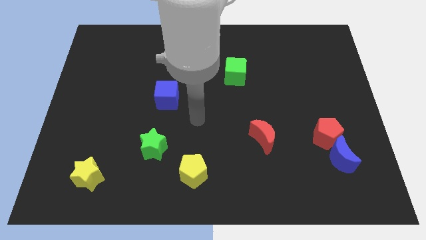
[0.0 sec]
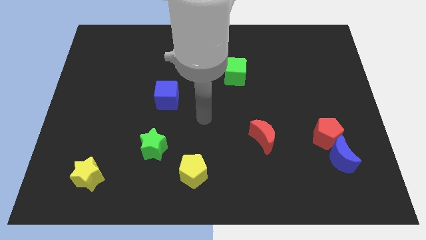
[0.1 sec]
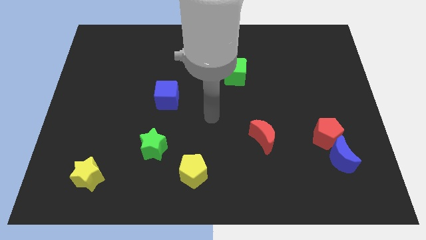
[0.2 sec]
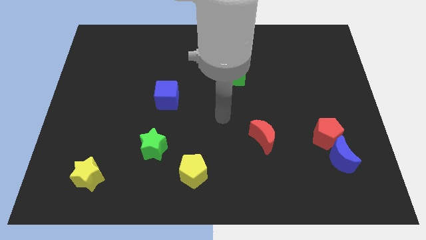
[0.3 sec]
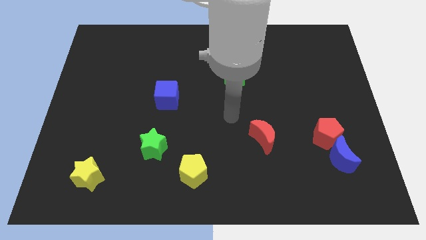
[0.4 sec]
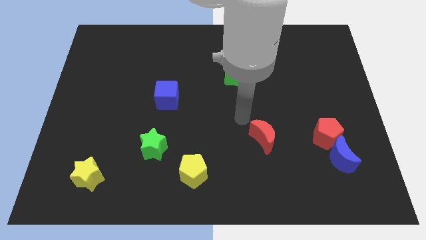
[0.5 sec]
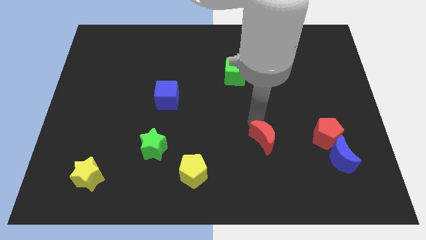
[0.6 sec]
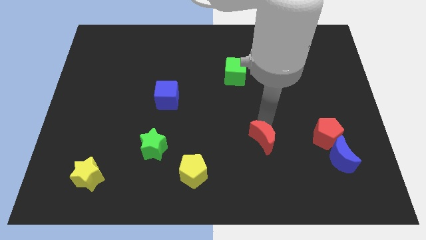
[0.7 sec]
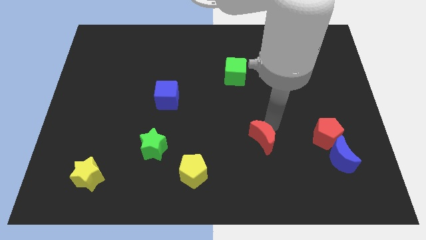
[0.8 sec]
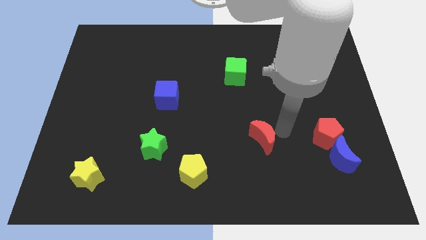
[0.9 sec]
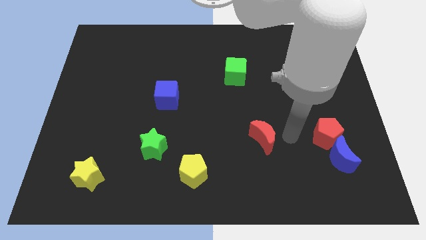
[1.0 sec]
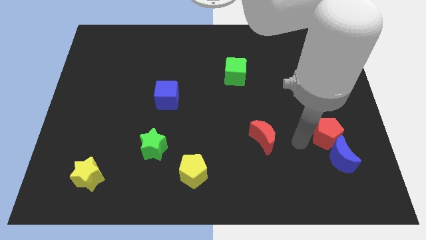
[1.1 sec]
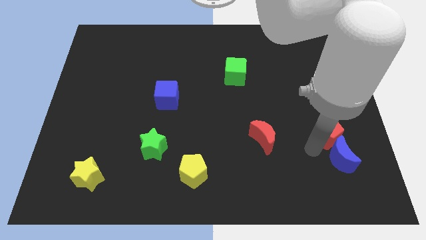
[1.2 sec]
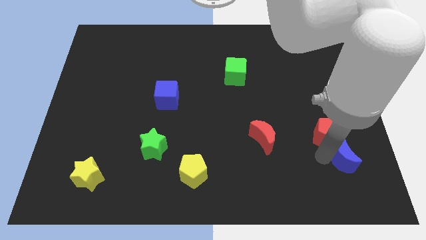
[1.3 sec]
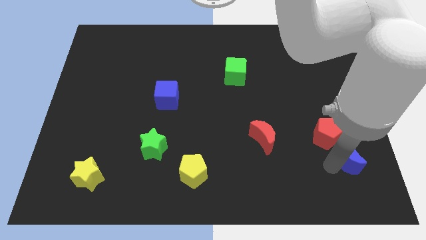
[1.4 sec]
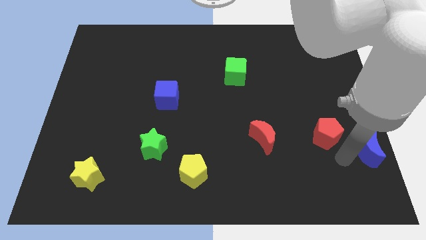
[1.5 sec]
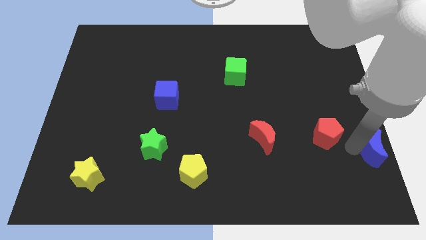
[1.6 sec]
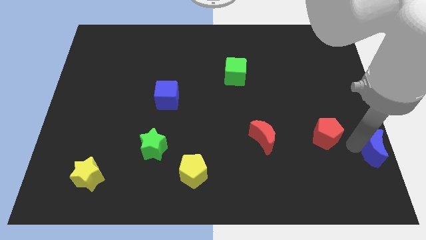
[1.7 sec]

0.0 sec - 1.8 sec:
move the red pentagon away from the blue moon

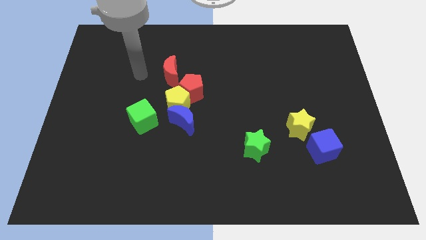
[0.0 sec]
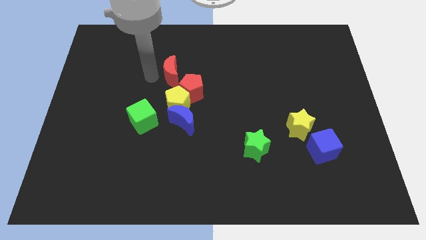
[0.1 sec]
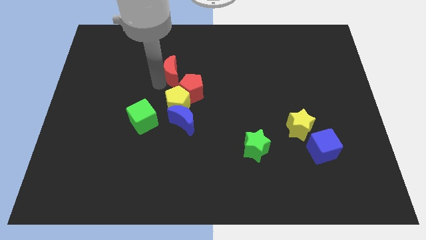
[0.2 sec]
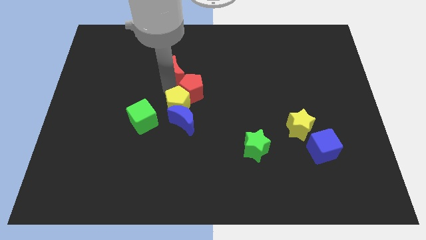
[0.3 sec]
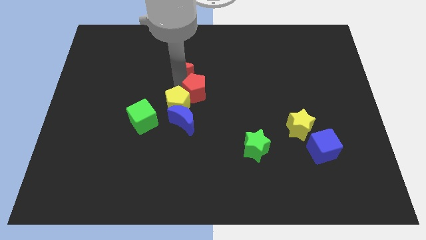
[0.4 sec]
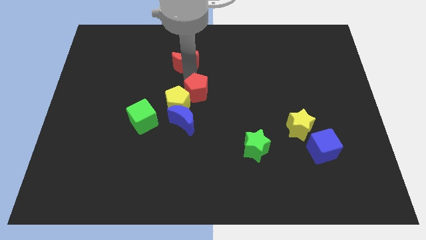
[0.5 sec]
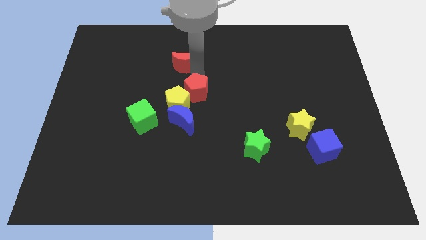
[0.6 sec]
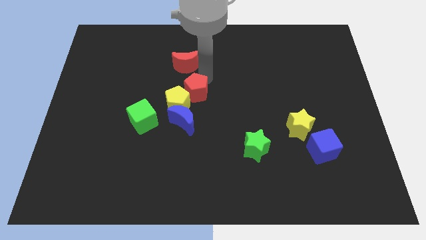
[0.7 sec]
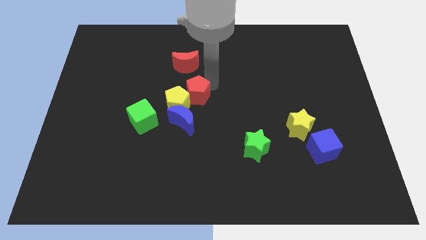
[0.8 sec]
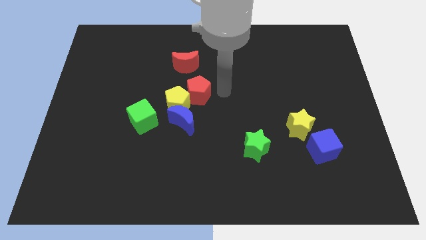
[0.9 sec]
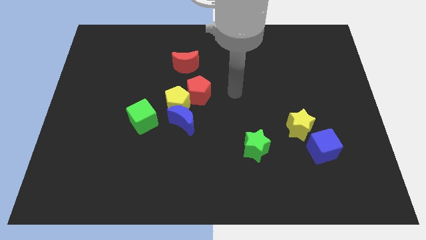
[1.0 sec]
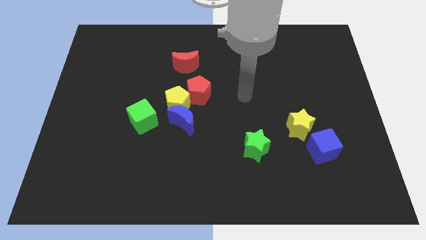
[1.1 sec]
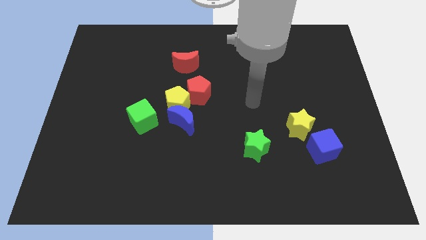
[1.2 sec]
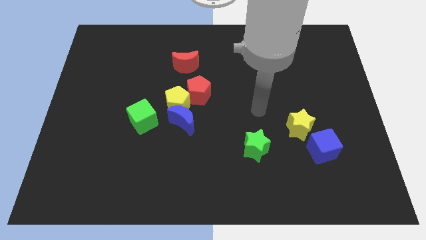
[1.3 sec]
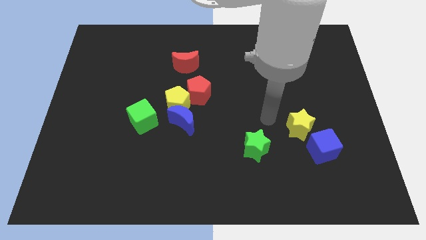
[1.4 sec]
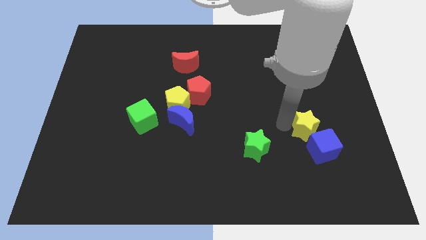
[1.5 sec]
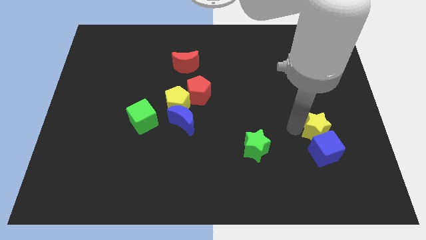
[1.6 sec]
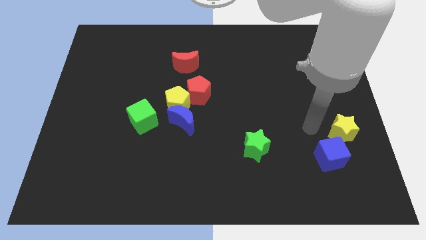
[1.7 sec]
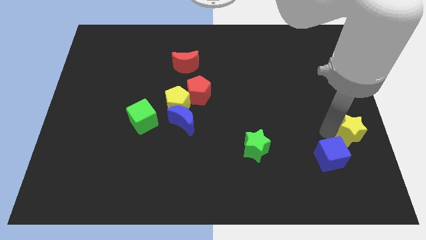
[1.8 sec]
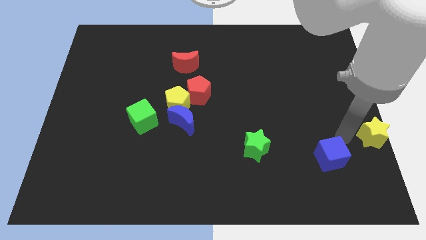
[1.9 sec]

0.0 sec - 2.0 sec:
separate the blue cube from the yellow star

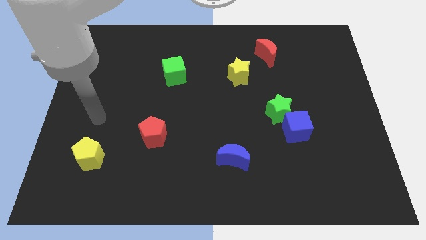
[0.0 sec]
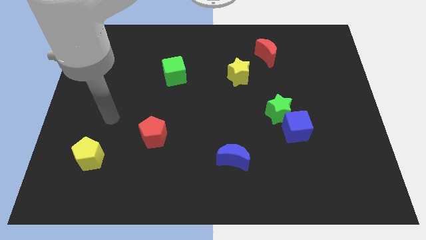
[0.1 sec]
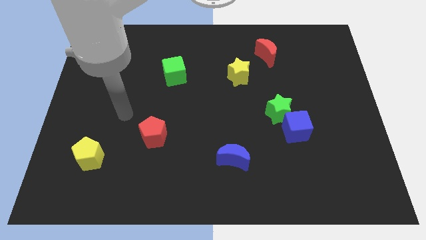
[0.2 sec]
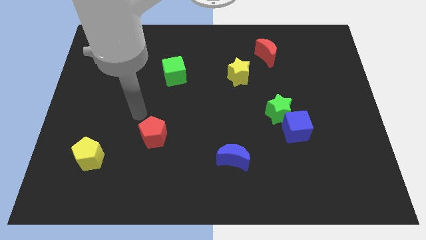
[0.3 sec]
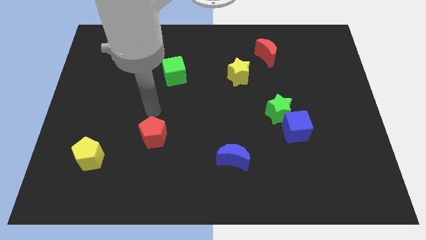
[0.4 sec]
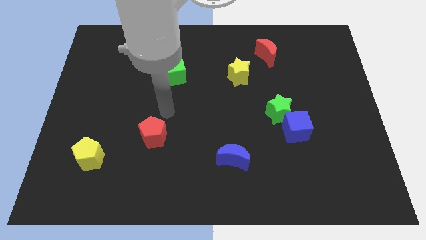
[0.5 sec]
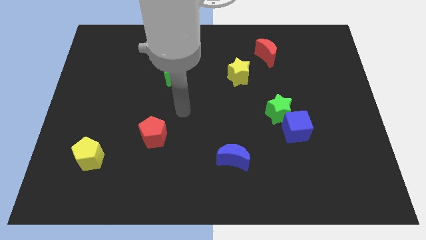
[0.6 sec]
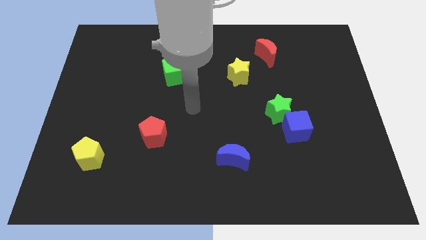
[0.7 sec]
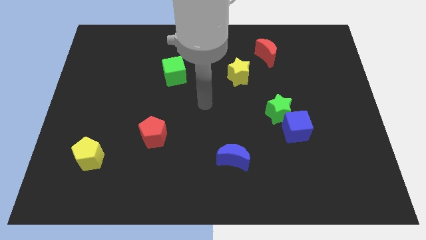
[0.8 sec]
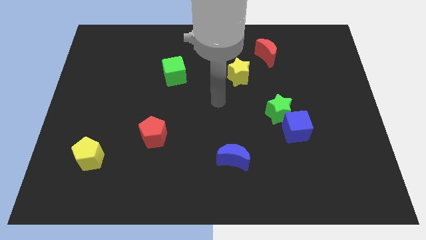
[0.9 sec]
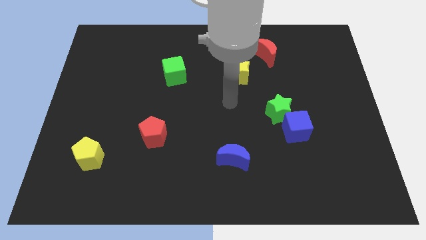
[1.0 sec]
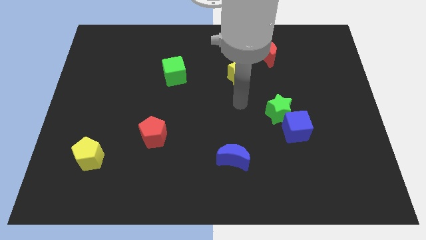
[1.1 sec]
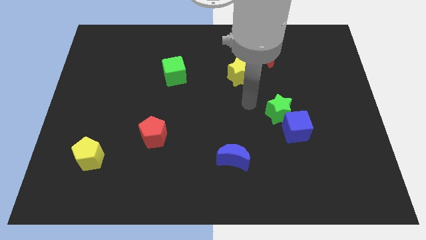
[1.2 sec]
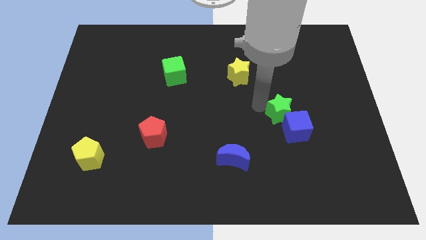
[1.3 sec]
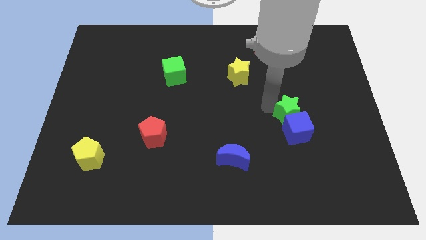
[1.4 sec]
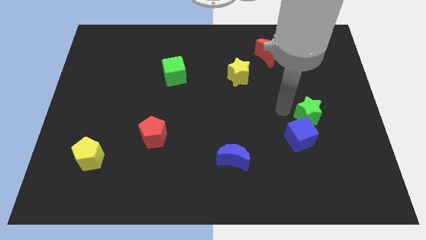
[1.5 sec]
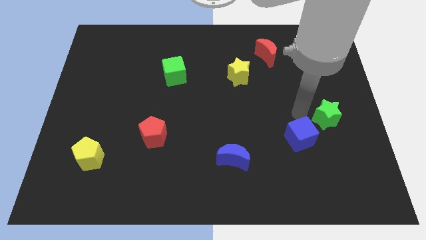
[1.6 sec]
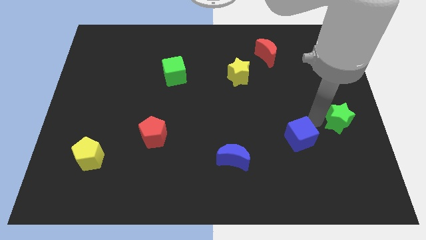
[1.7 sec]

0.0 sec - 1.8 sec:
move the blue cube away from the green star

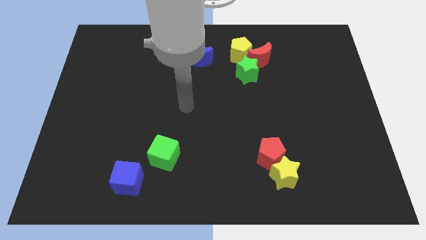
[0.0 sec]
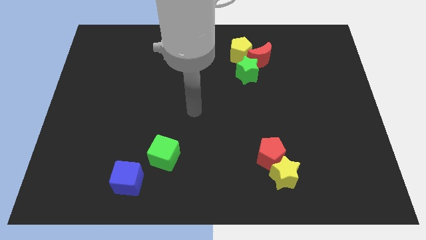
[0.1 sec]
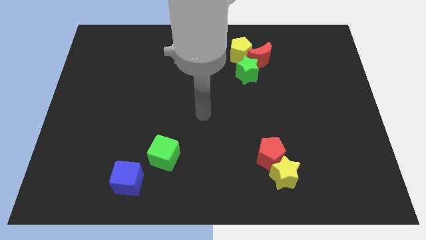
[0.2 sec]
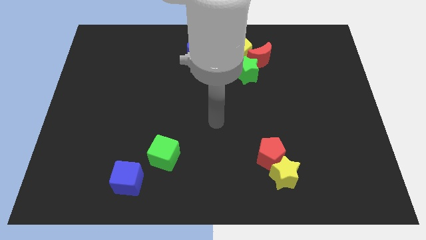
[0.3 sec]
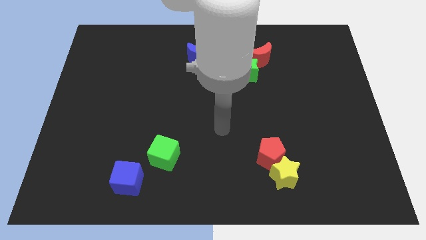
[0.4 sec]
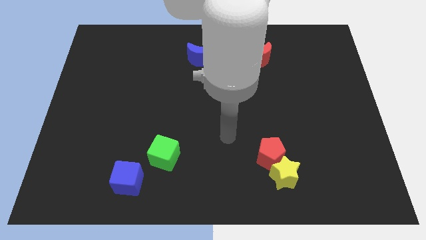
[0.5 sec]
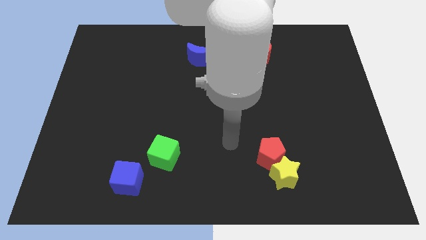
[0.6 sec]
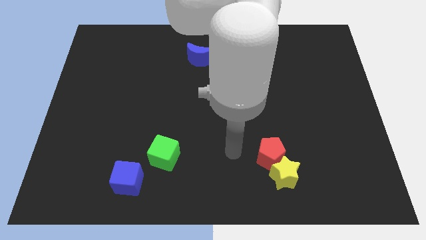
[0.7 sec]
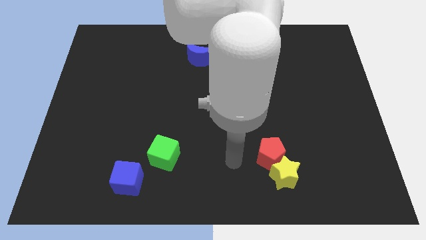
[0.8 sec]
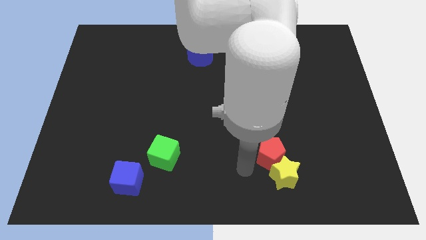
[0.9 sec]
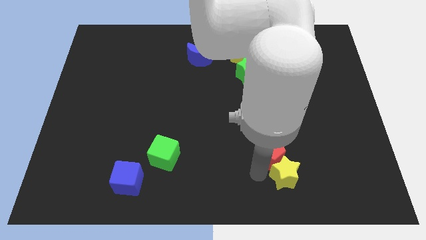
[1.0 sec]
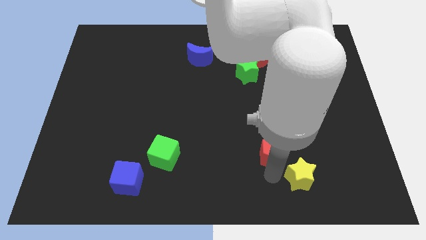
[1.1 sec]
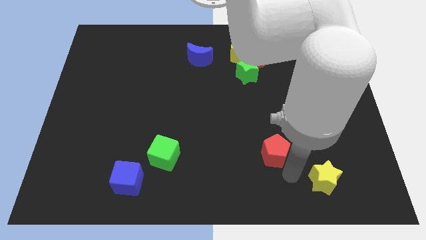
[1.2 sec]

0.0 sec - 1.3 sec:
pull the red pentagon apart from the yellow star

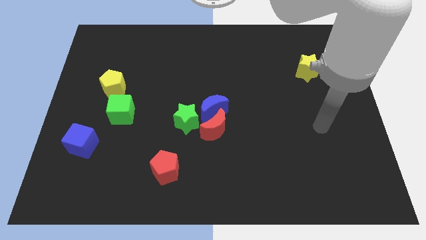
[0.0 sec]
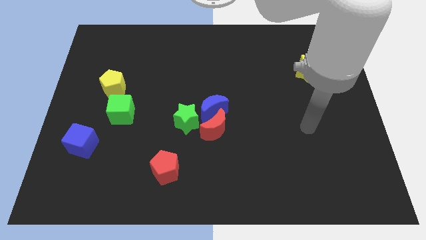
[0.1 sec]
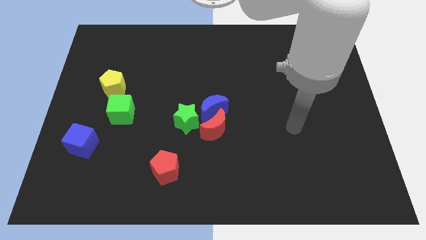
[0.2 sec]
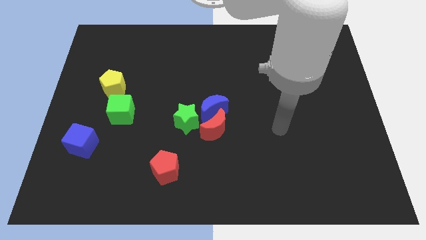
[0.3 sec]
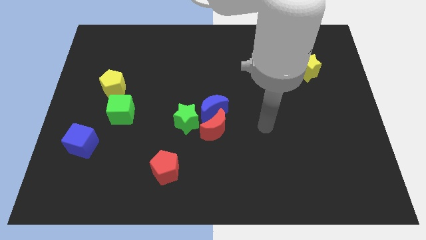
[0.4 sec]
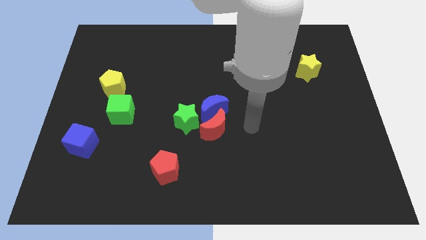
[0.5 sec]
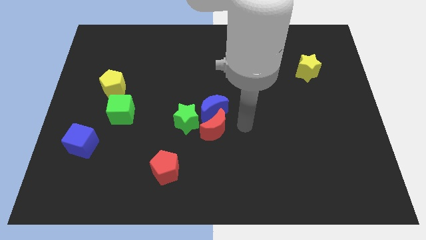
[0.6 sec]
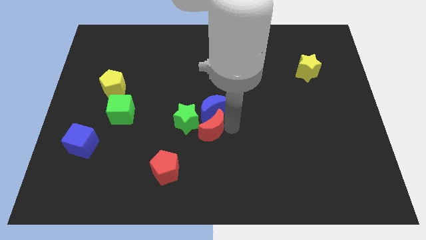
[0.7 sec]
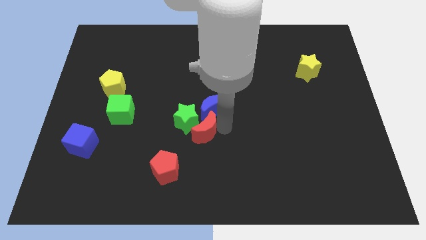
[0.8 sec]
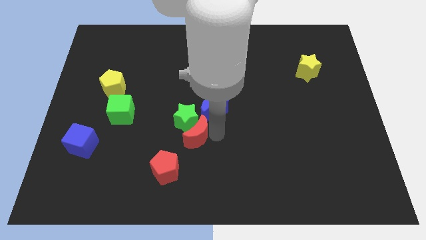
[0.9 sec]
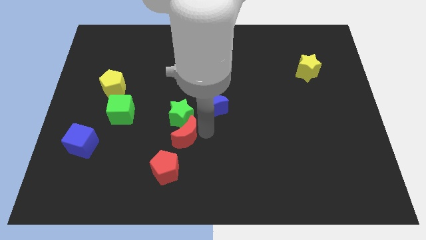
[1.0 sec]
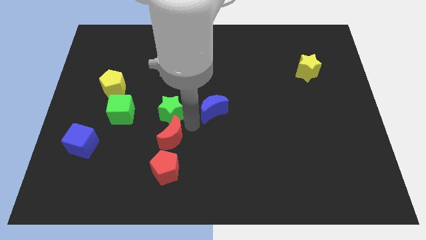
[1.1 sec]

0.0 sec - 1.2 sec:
pull the blue moon apart from the red moon and green star

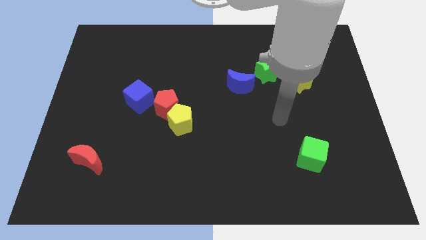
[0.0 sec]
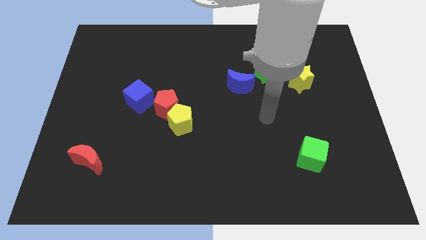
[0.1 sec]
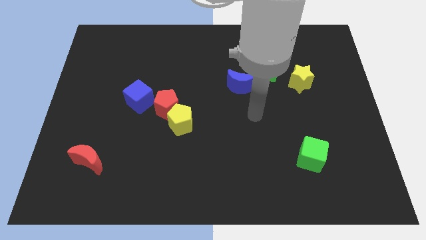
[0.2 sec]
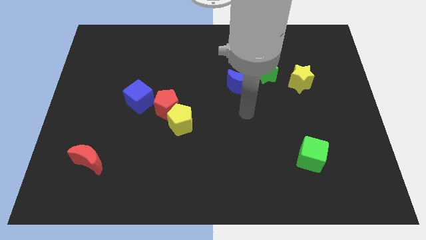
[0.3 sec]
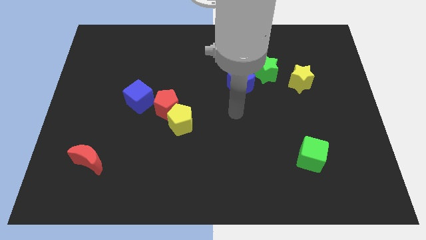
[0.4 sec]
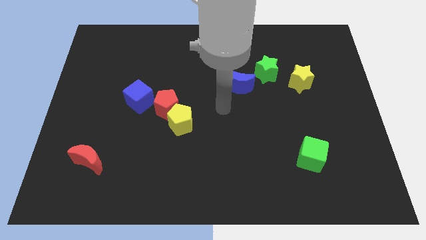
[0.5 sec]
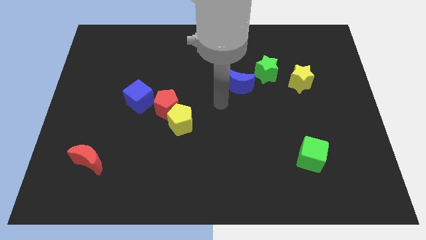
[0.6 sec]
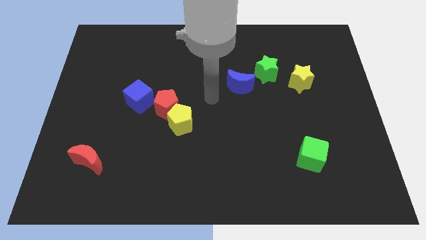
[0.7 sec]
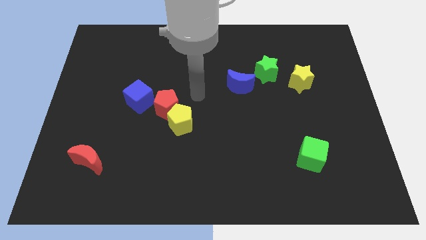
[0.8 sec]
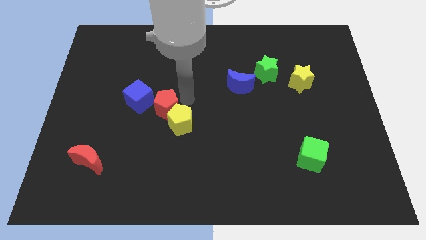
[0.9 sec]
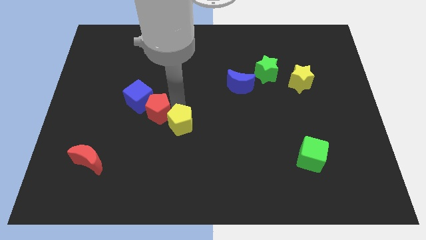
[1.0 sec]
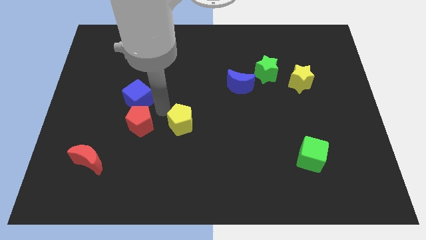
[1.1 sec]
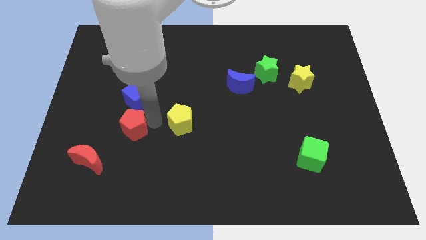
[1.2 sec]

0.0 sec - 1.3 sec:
separate the yellow pentagon from the red pentagon
